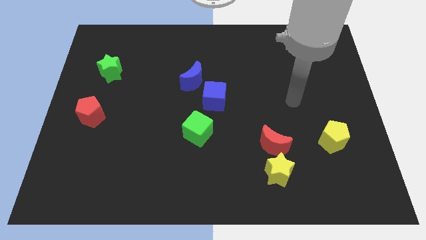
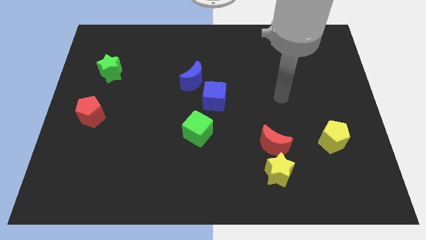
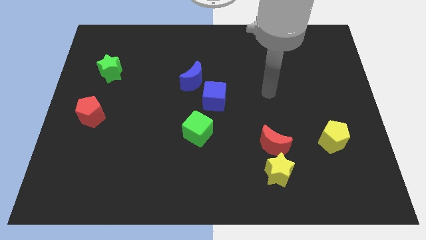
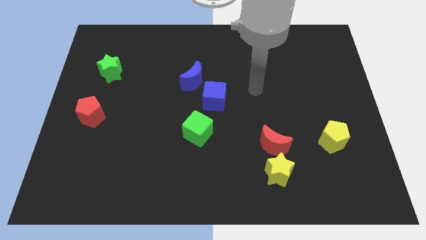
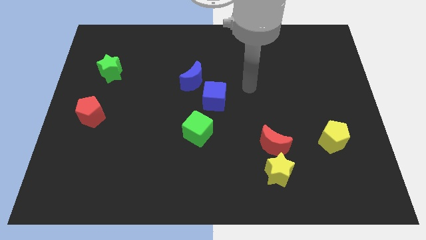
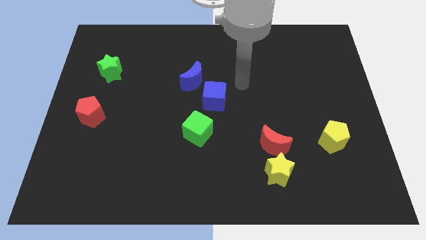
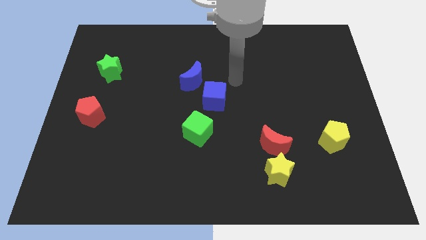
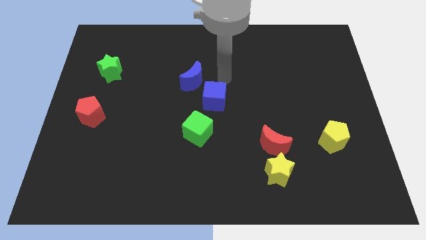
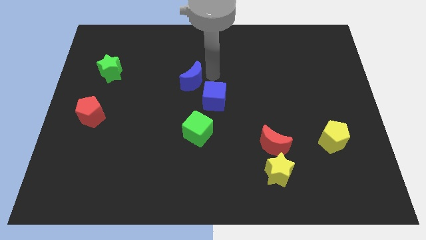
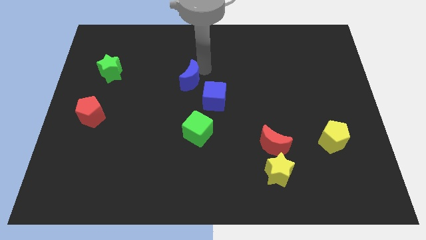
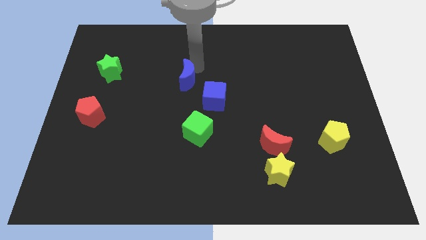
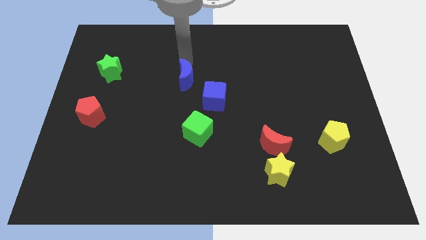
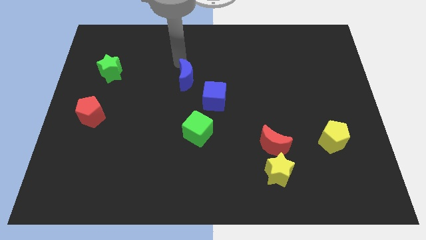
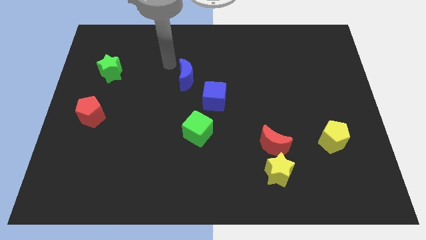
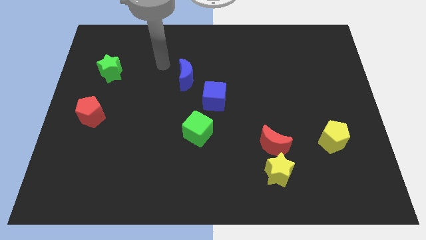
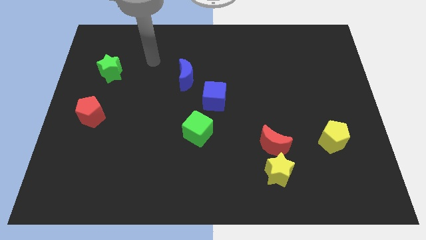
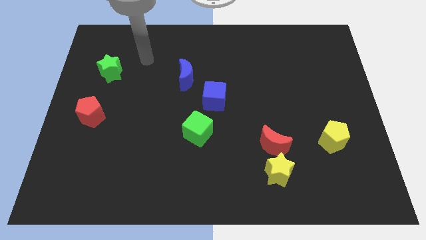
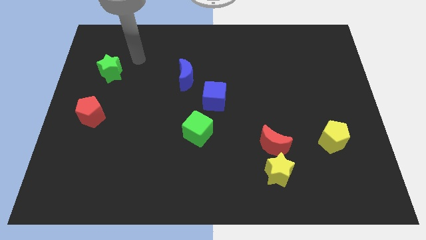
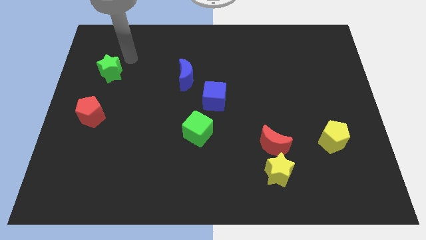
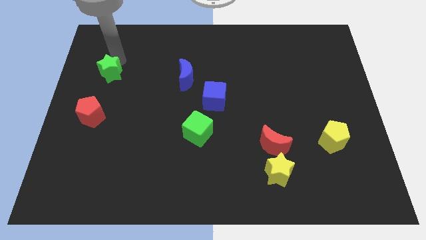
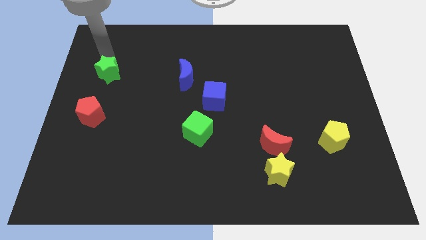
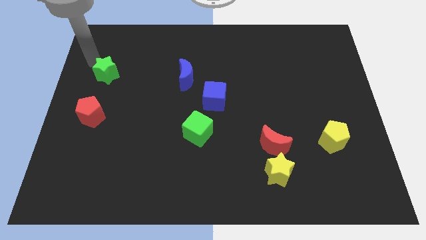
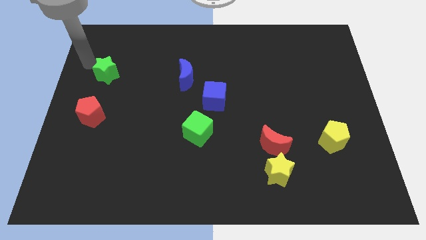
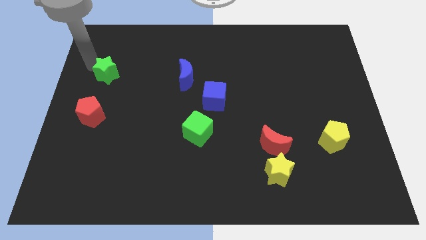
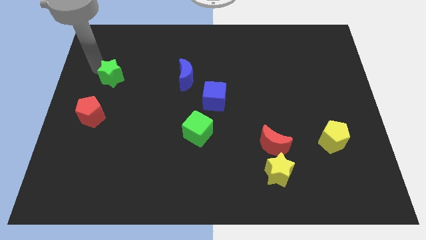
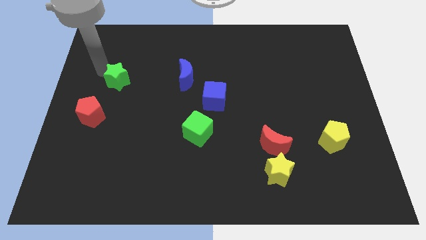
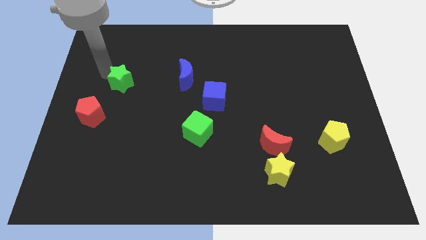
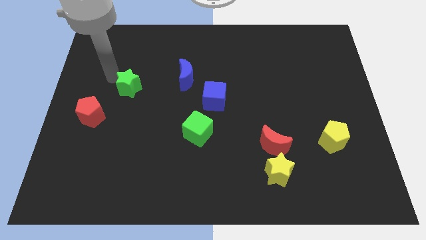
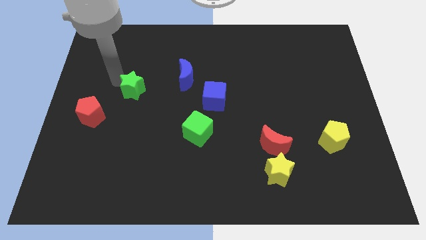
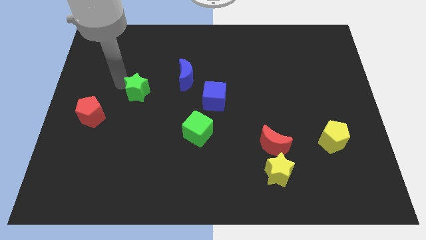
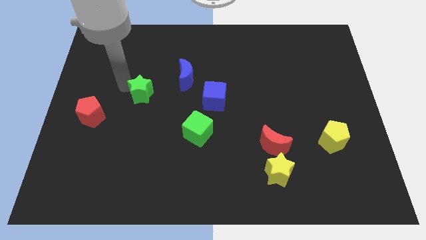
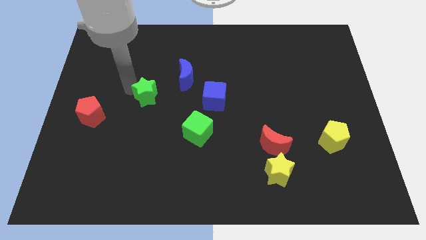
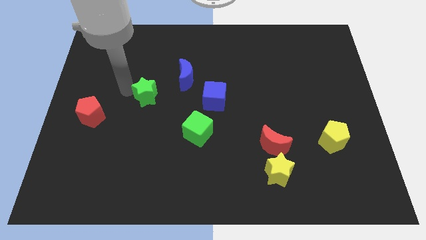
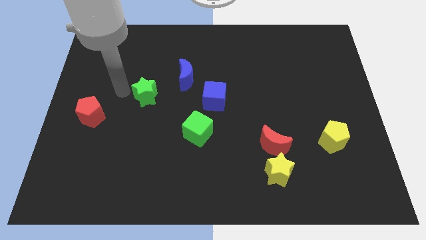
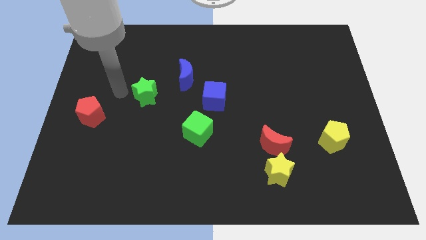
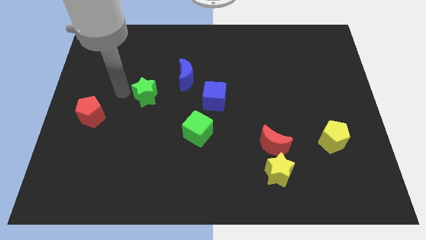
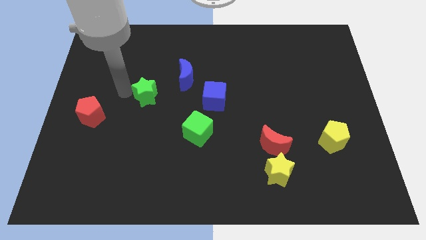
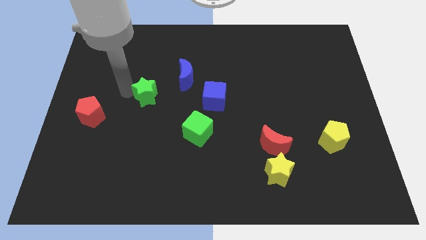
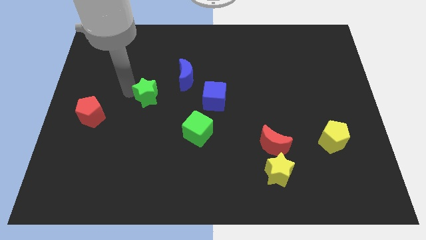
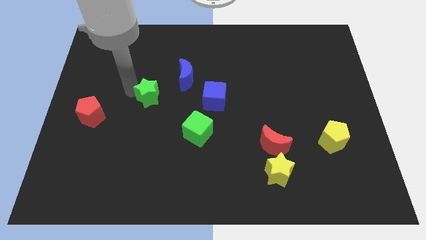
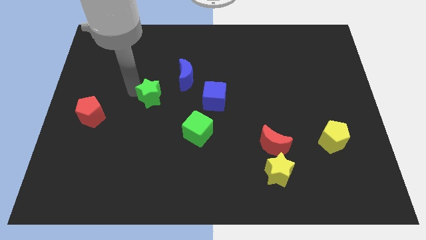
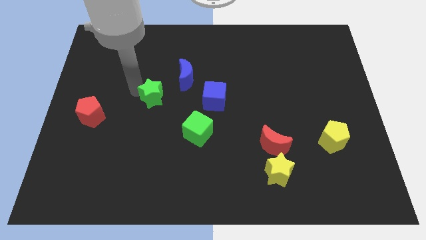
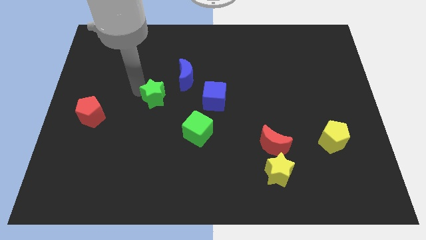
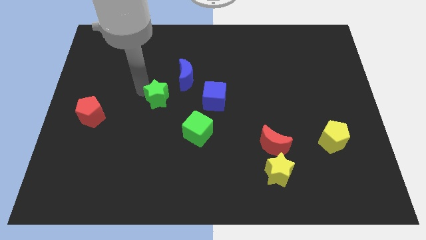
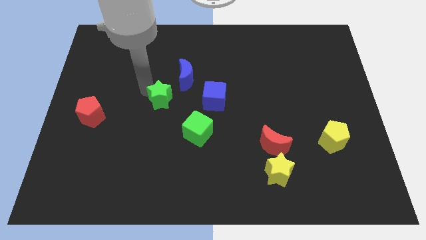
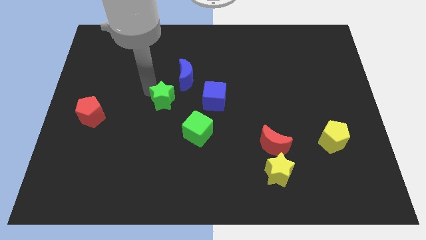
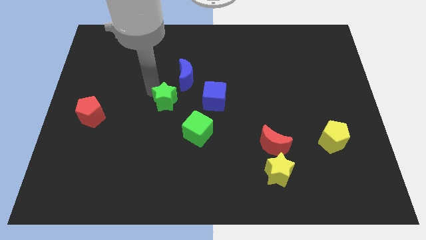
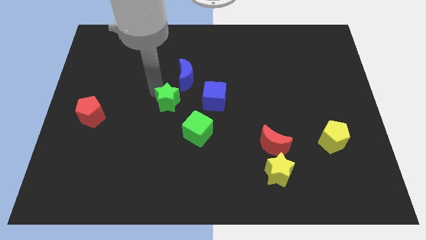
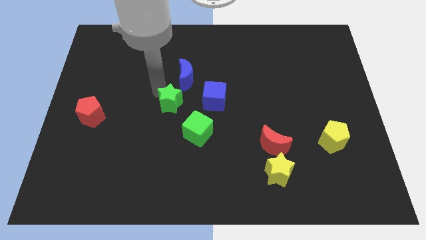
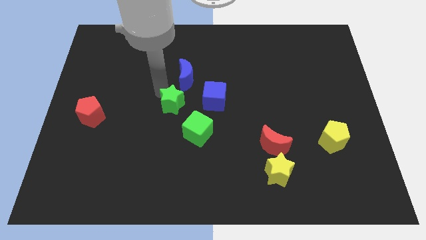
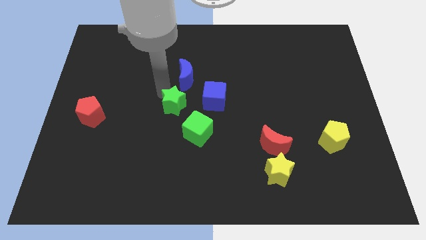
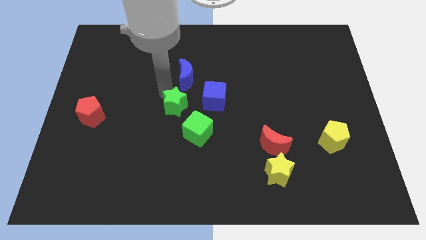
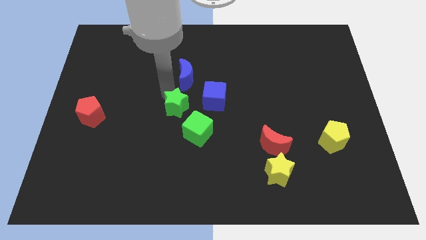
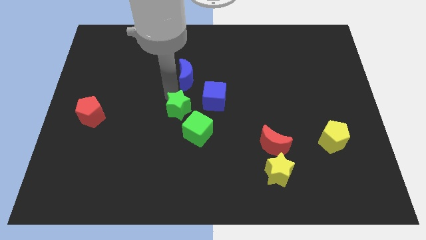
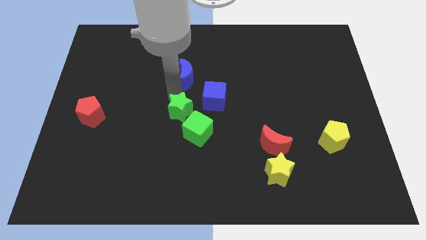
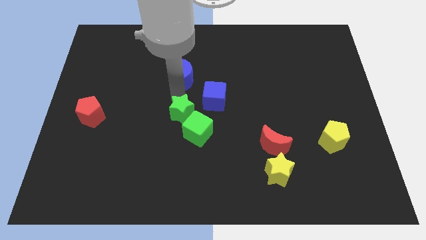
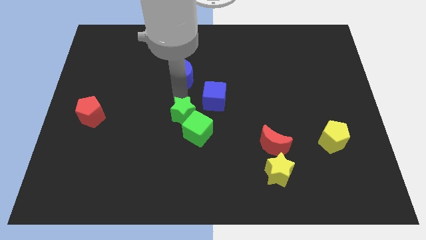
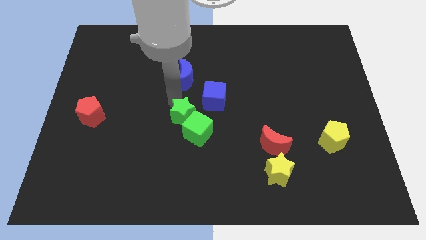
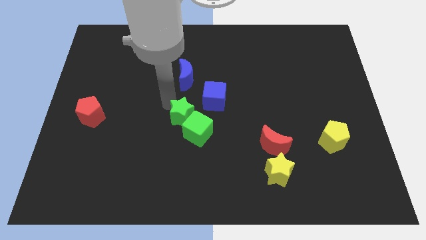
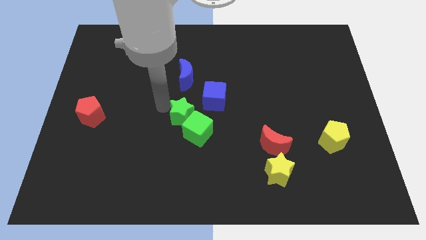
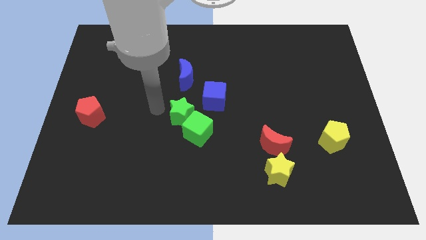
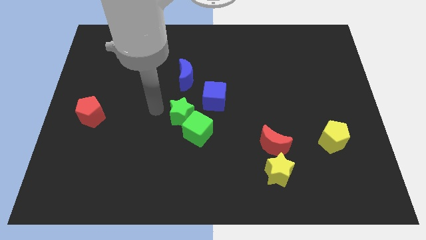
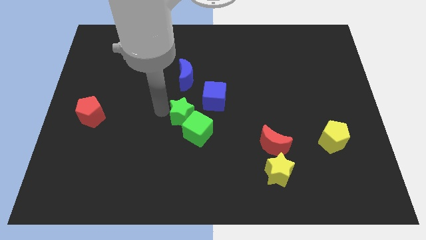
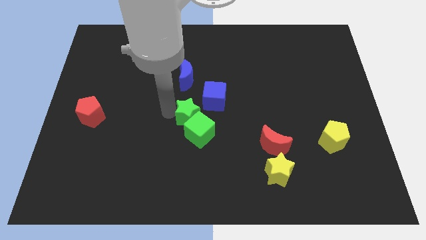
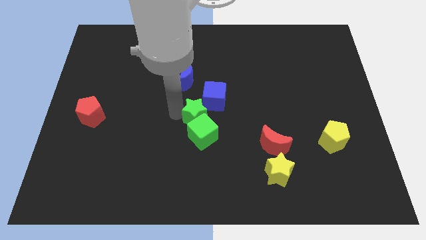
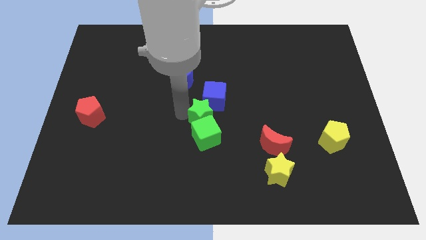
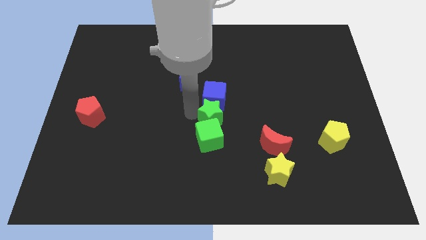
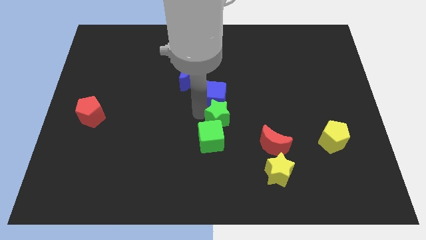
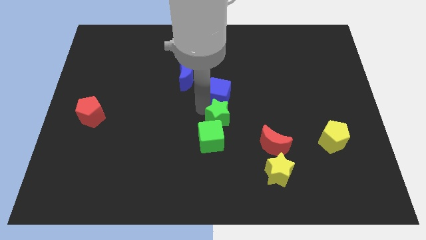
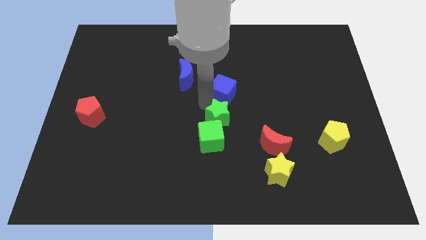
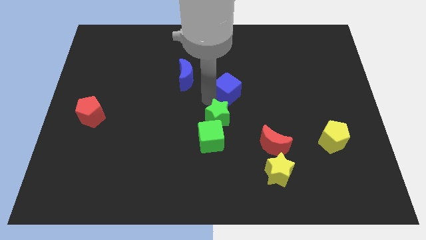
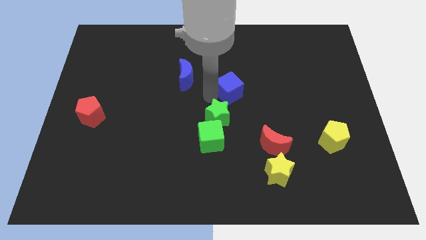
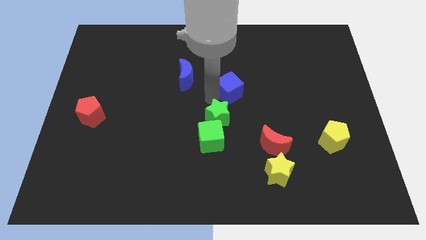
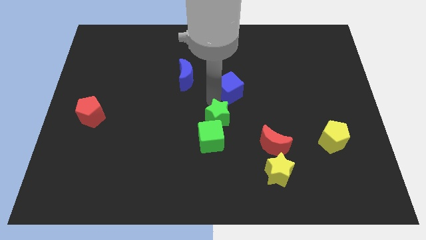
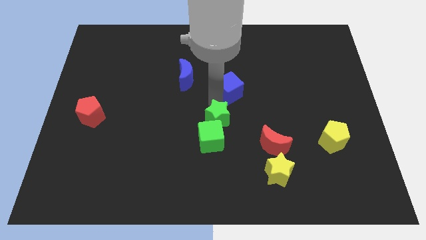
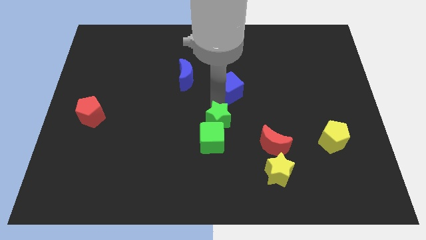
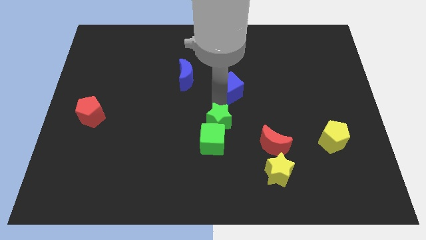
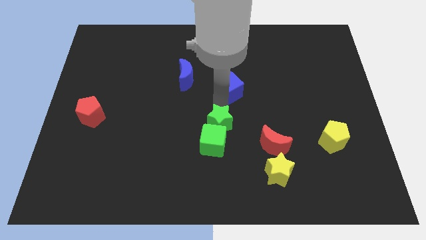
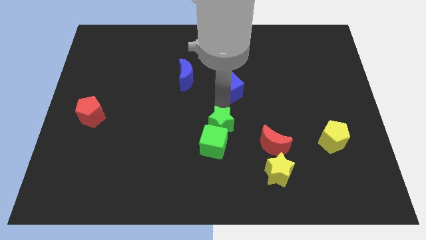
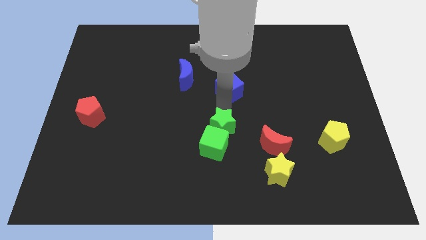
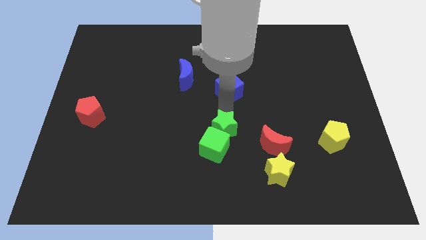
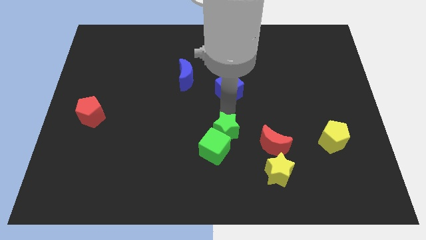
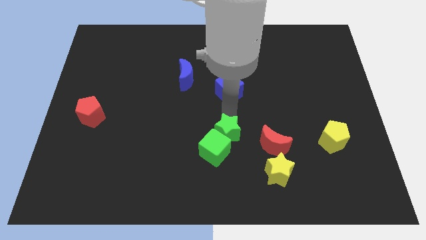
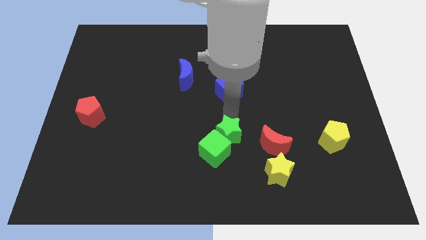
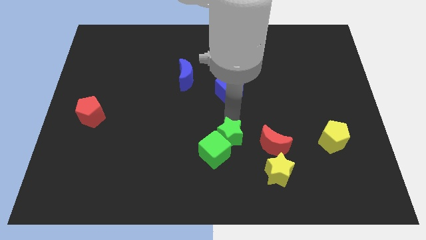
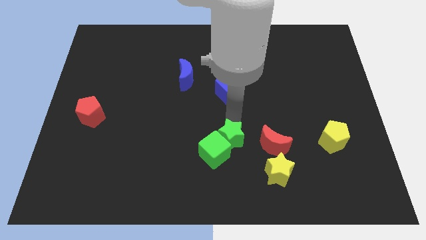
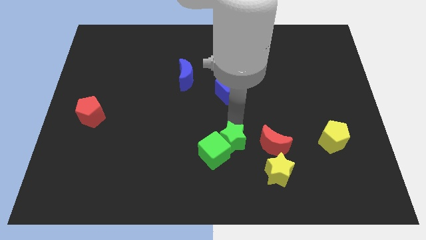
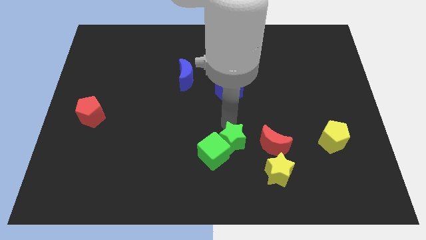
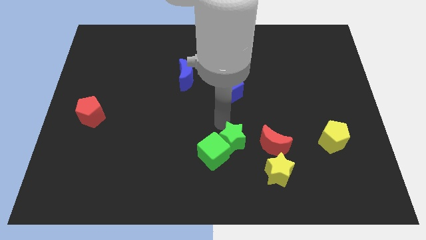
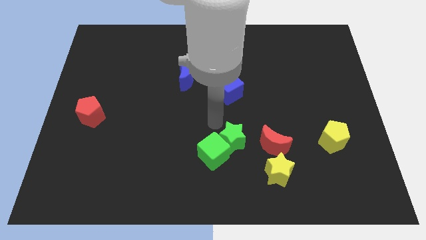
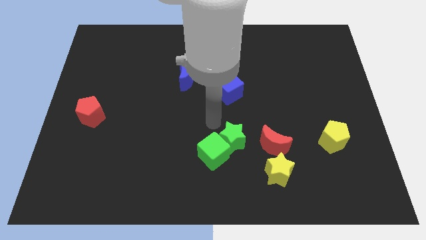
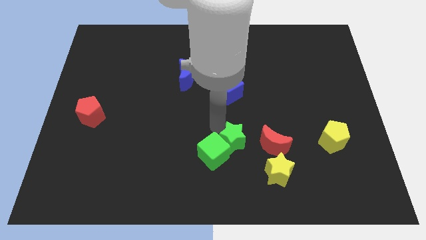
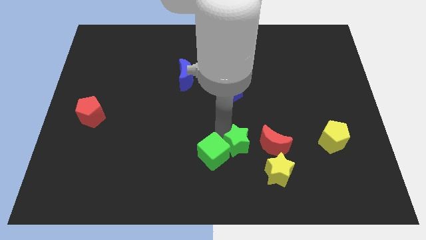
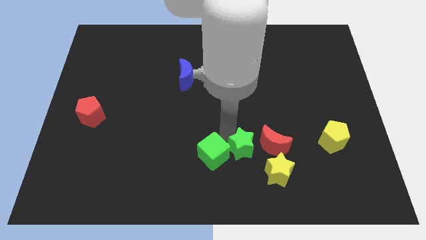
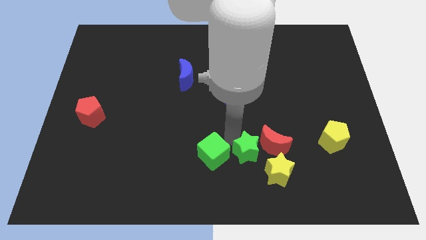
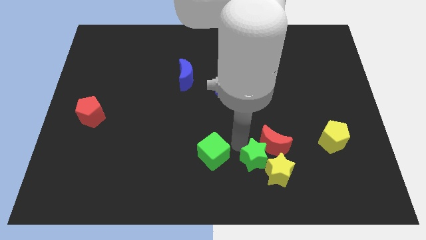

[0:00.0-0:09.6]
put the green star to the yellow star
